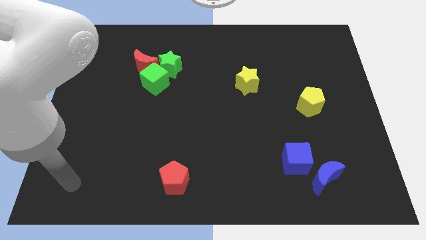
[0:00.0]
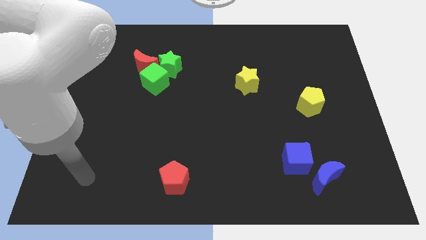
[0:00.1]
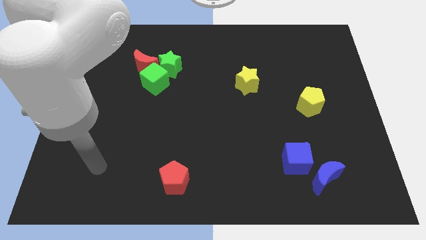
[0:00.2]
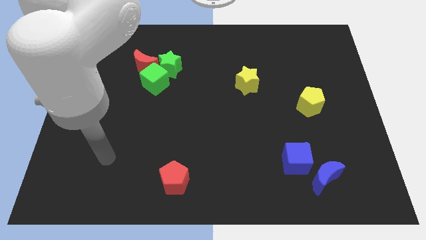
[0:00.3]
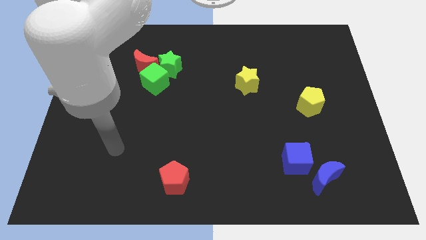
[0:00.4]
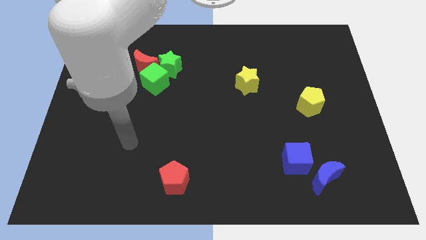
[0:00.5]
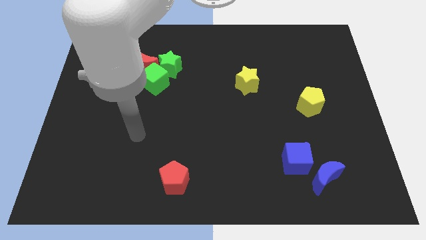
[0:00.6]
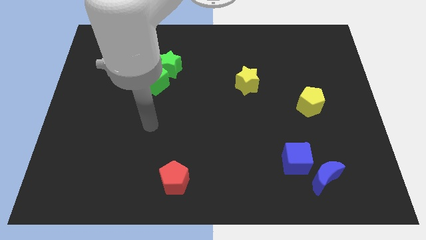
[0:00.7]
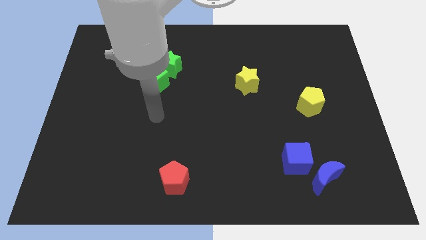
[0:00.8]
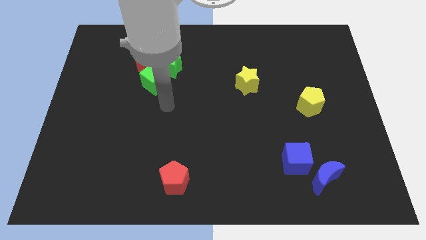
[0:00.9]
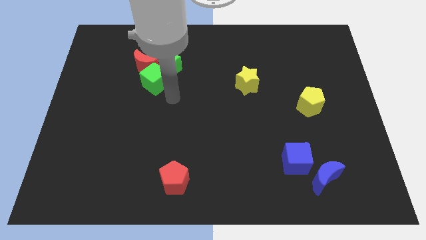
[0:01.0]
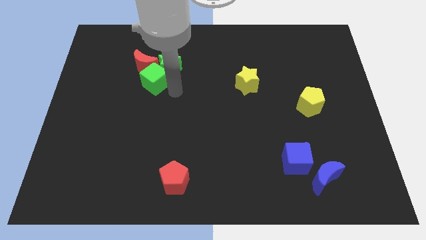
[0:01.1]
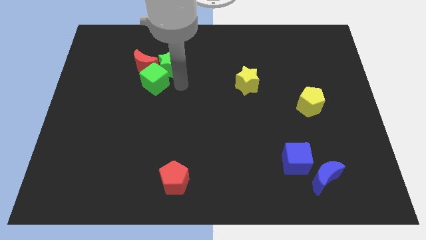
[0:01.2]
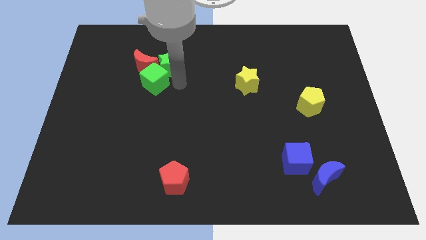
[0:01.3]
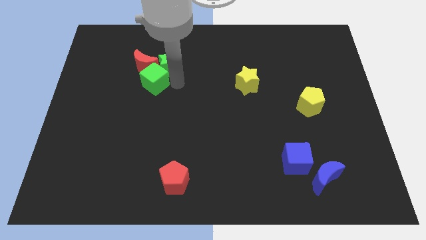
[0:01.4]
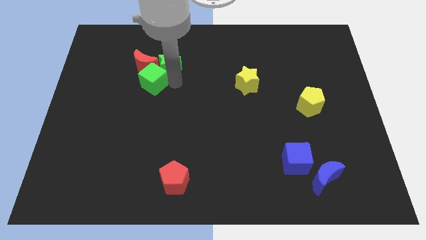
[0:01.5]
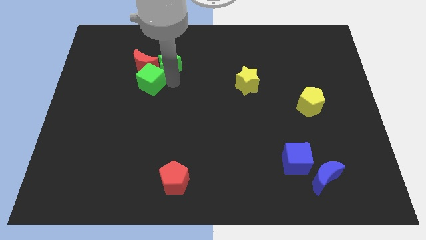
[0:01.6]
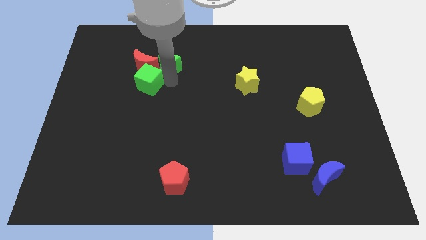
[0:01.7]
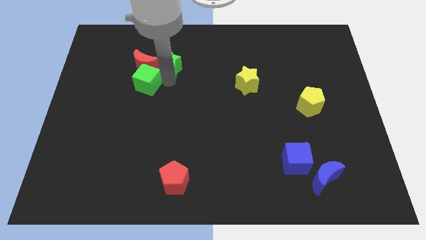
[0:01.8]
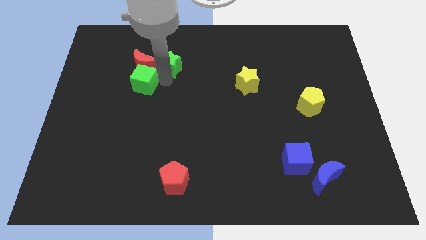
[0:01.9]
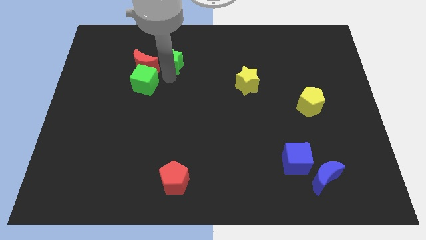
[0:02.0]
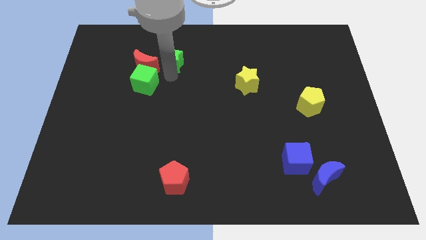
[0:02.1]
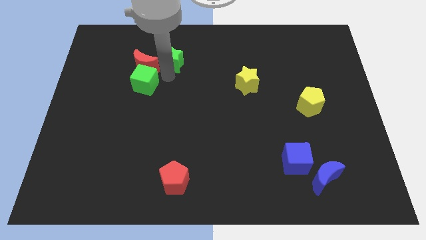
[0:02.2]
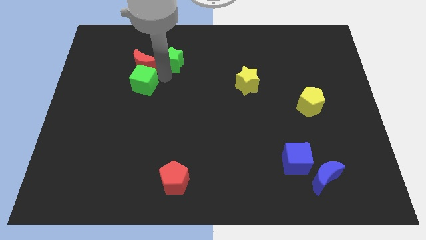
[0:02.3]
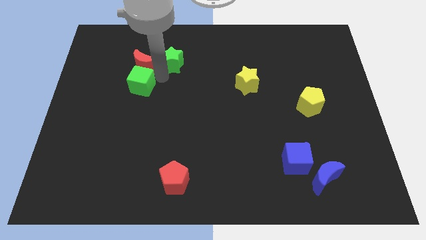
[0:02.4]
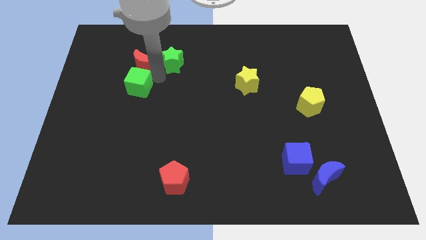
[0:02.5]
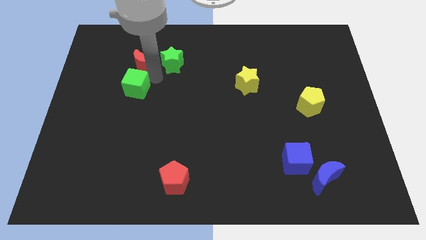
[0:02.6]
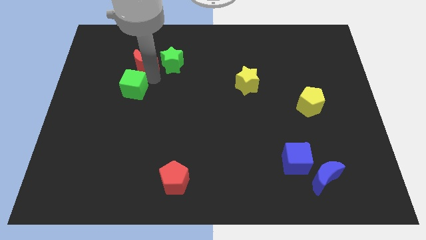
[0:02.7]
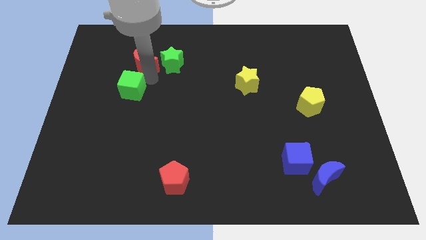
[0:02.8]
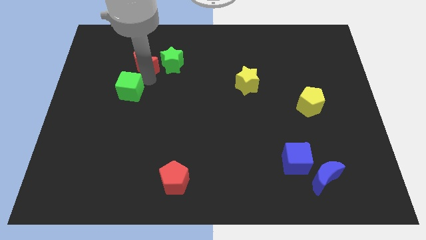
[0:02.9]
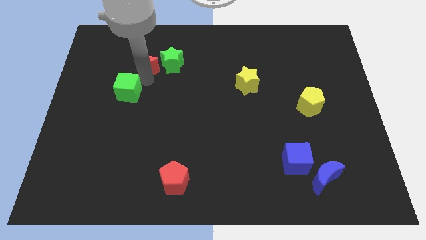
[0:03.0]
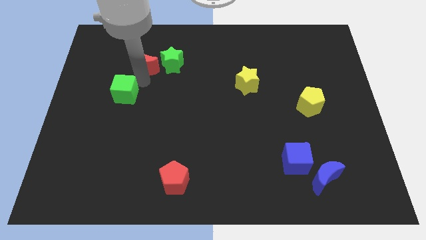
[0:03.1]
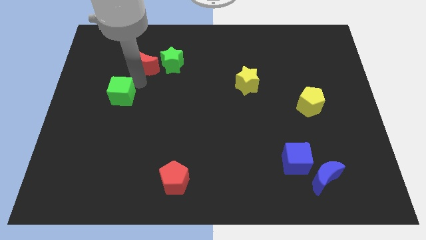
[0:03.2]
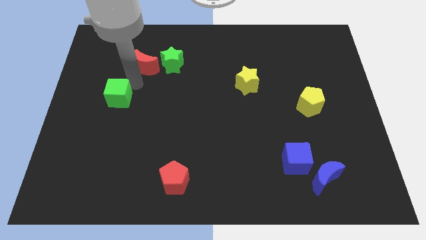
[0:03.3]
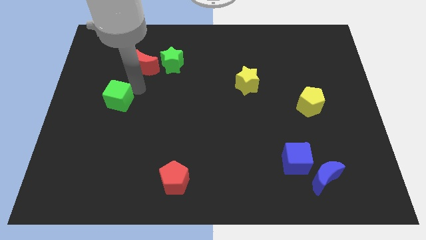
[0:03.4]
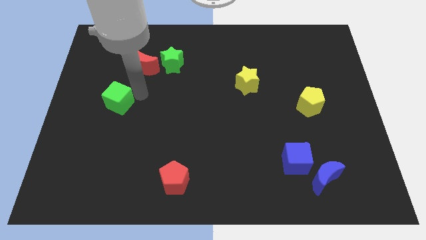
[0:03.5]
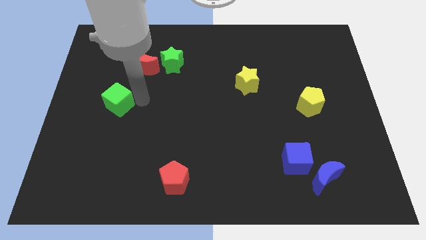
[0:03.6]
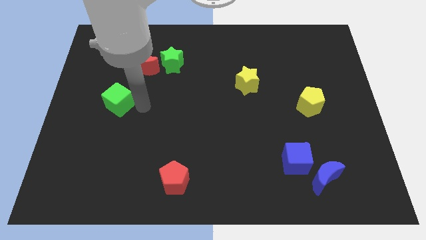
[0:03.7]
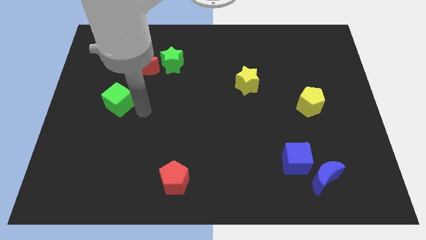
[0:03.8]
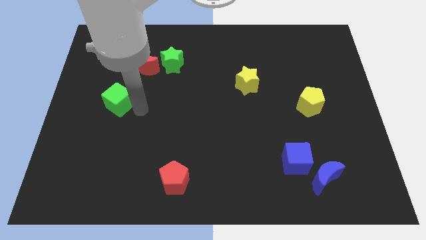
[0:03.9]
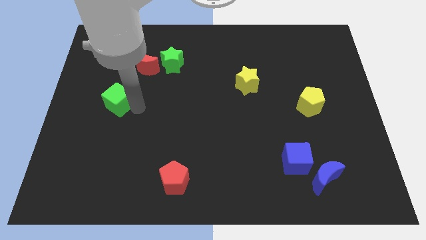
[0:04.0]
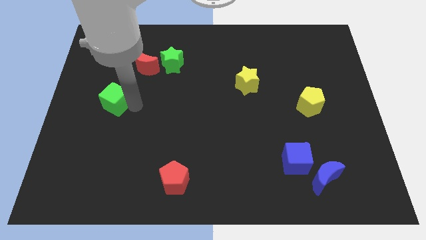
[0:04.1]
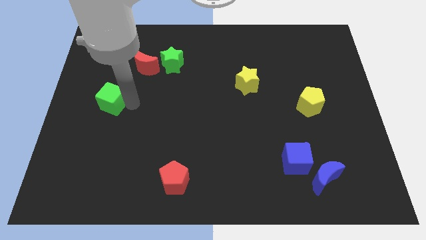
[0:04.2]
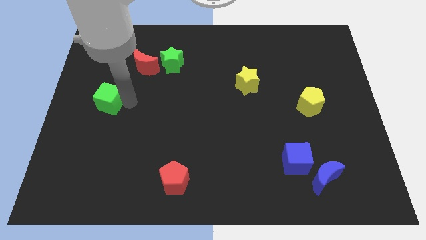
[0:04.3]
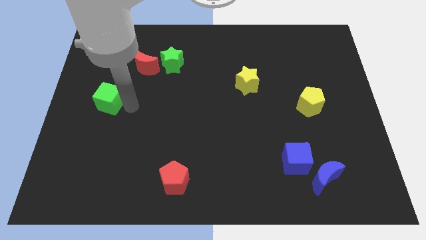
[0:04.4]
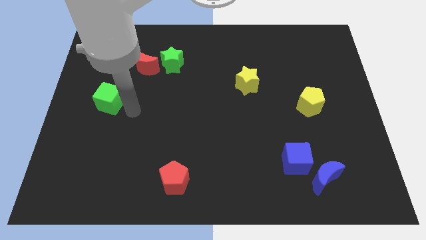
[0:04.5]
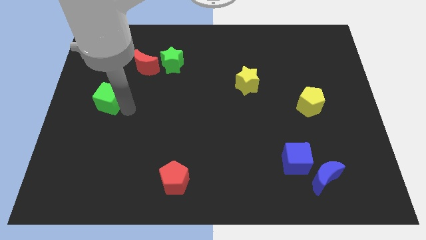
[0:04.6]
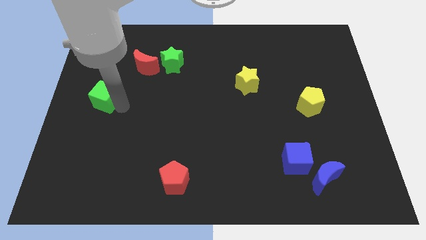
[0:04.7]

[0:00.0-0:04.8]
push the green cube to the left side
